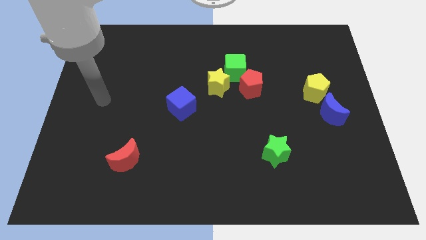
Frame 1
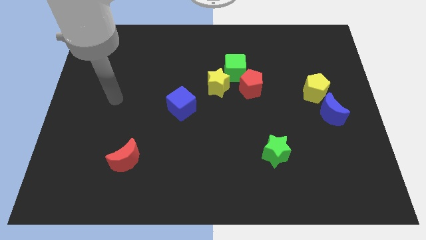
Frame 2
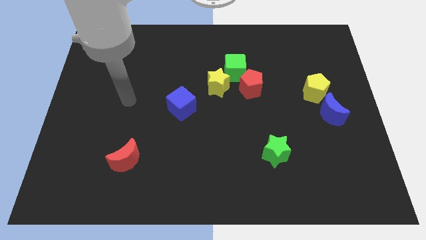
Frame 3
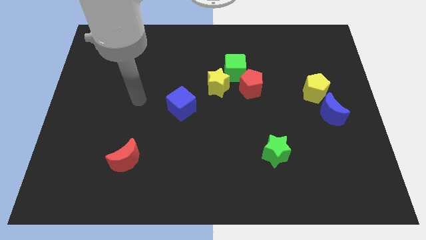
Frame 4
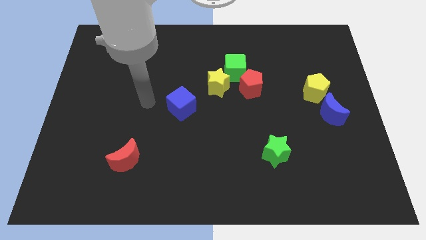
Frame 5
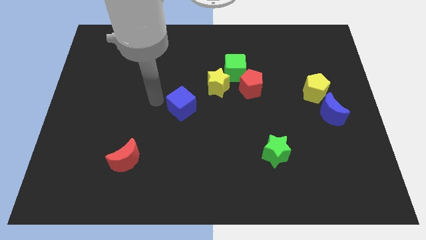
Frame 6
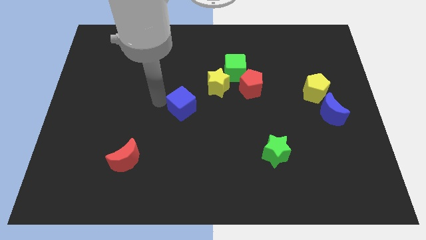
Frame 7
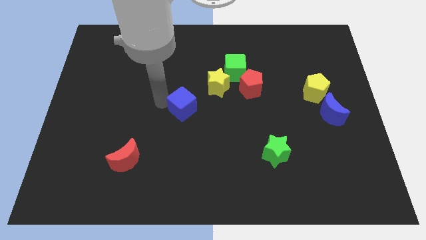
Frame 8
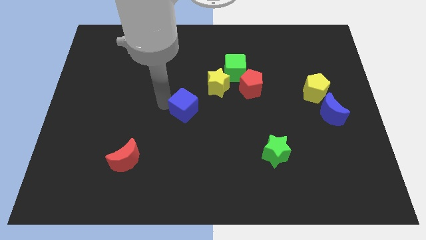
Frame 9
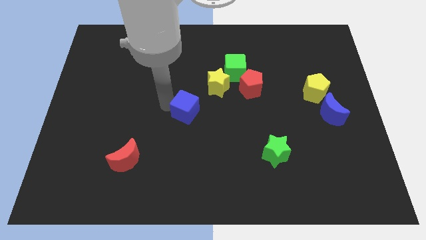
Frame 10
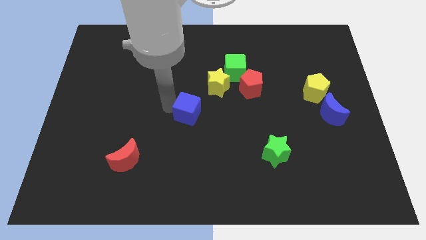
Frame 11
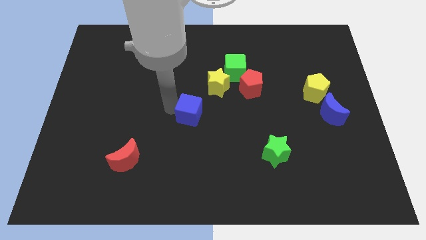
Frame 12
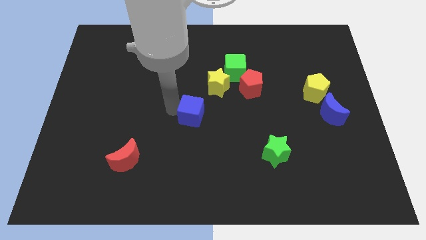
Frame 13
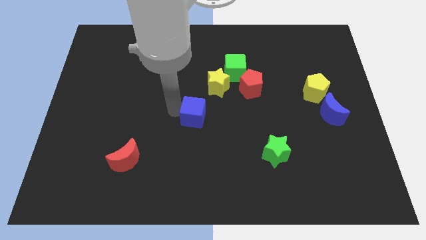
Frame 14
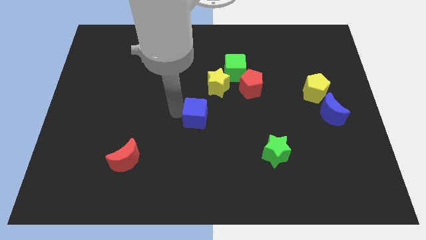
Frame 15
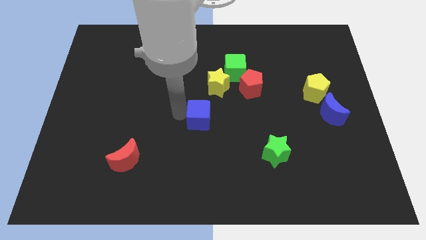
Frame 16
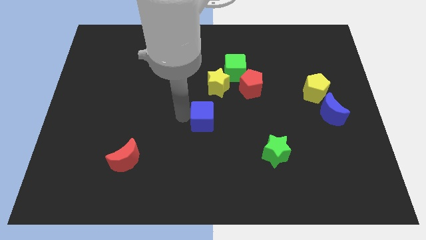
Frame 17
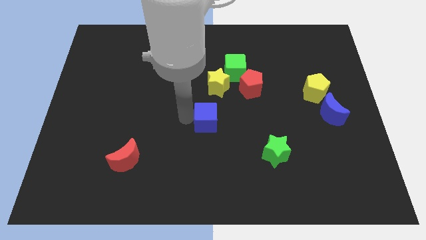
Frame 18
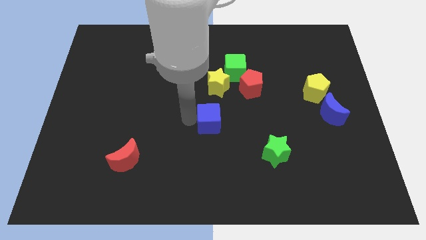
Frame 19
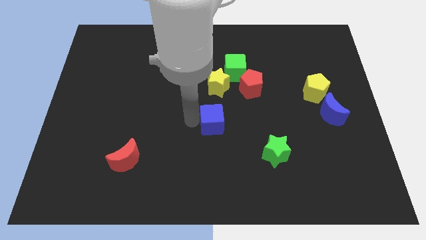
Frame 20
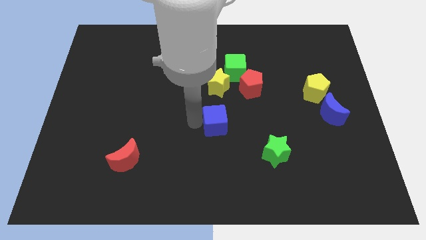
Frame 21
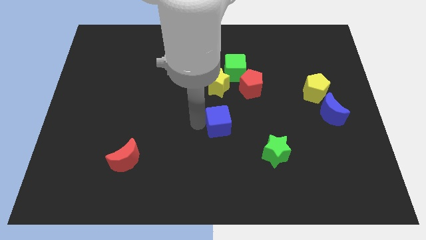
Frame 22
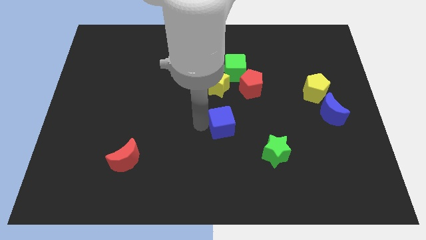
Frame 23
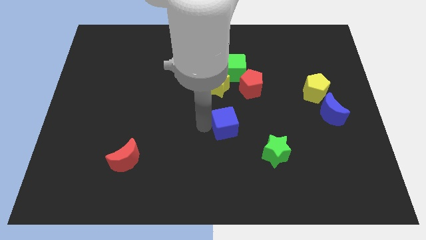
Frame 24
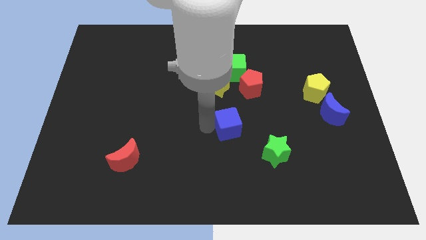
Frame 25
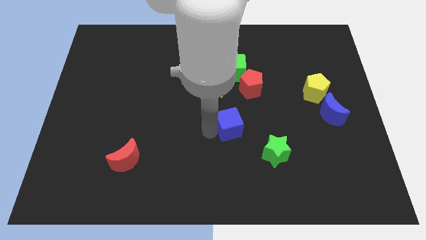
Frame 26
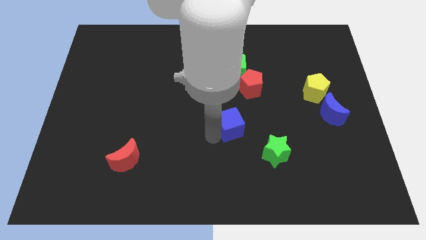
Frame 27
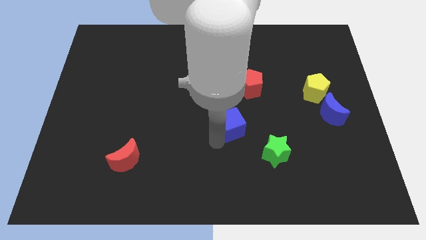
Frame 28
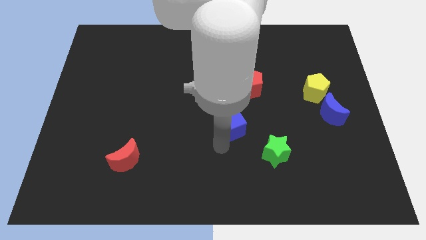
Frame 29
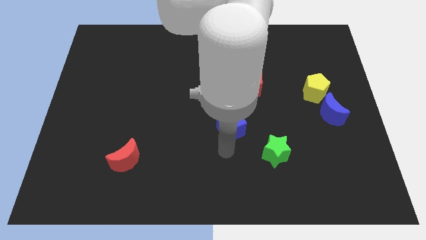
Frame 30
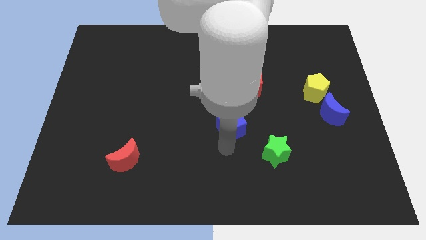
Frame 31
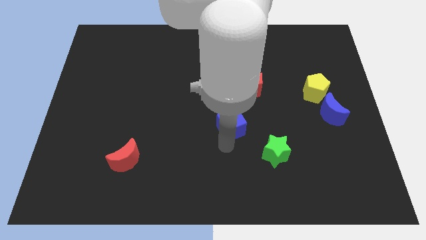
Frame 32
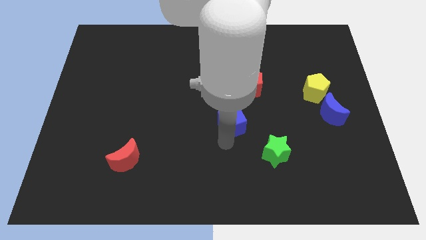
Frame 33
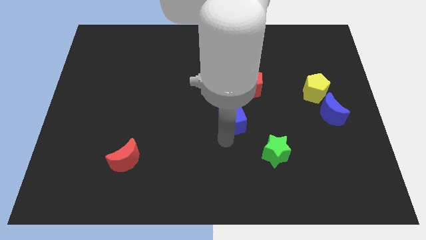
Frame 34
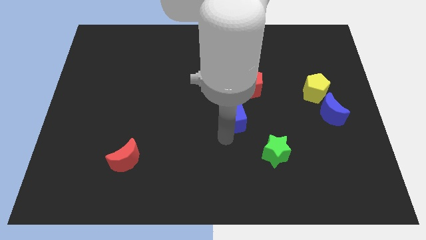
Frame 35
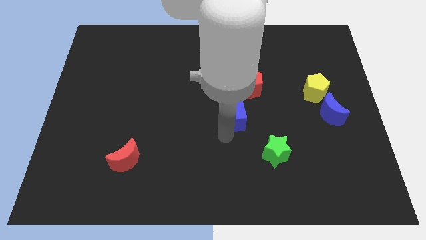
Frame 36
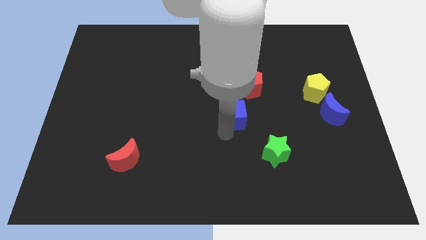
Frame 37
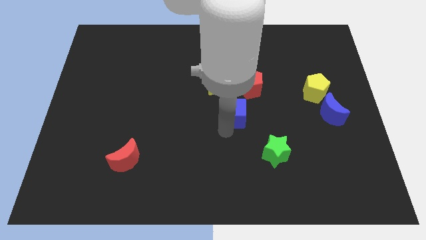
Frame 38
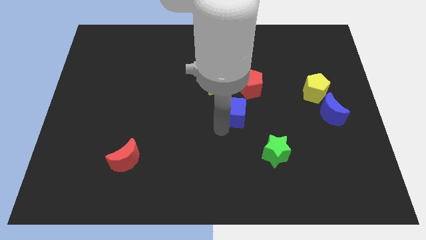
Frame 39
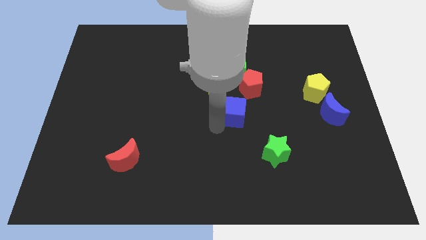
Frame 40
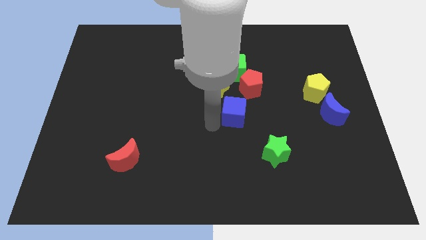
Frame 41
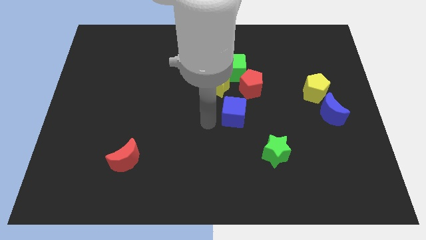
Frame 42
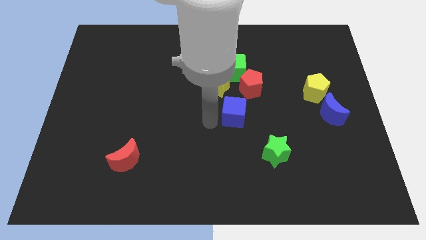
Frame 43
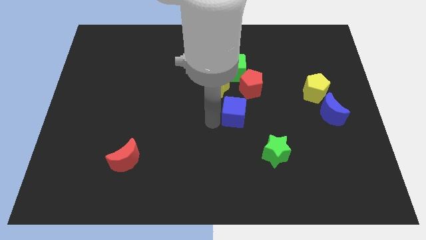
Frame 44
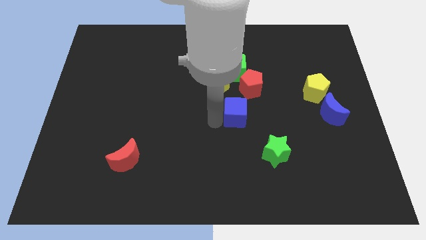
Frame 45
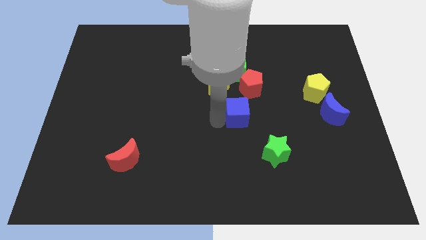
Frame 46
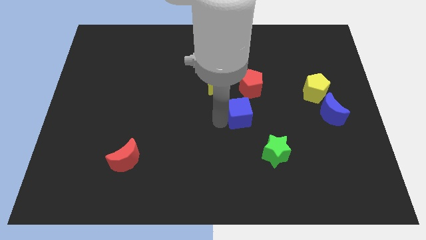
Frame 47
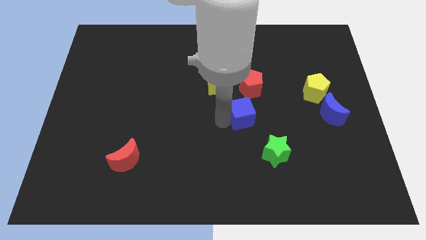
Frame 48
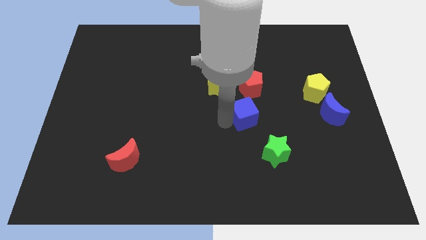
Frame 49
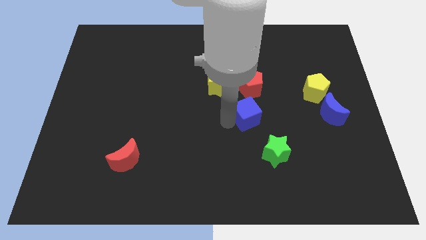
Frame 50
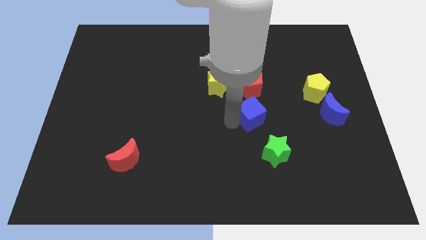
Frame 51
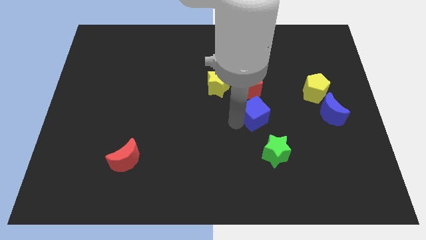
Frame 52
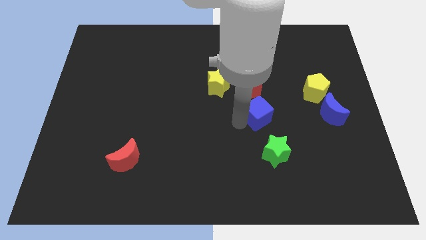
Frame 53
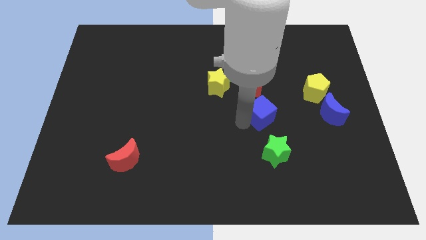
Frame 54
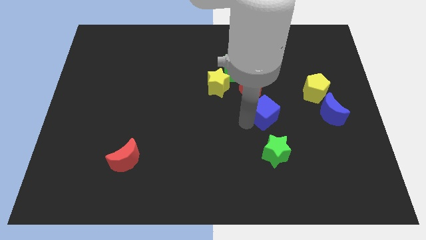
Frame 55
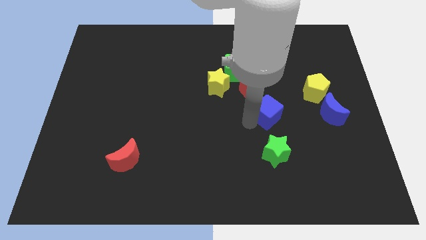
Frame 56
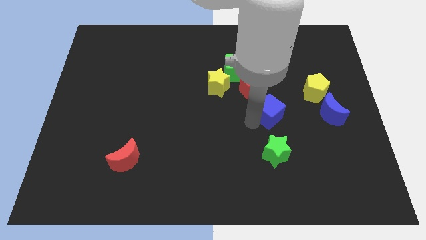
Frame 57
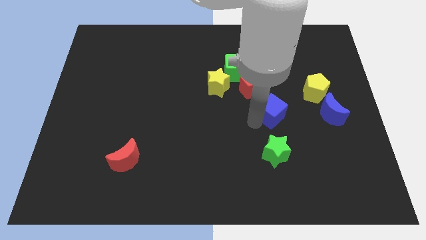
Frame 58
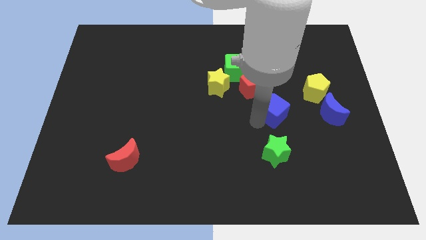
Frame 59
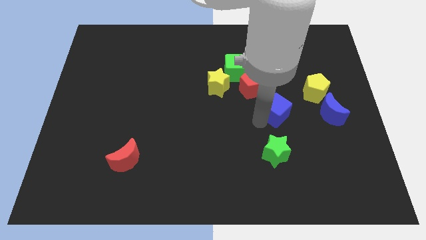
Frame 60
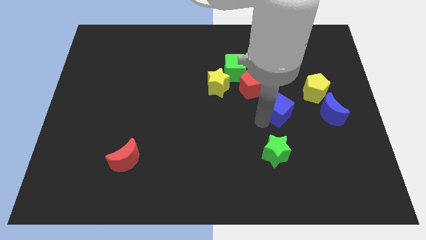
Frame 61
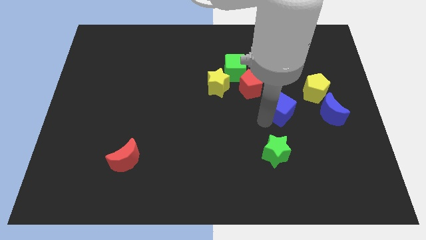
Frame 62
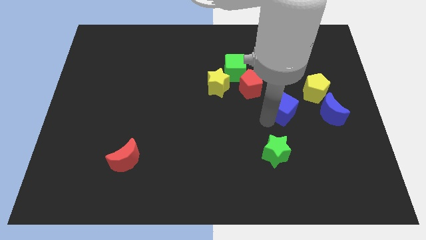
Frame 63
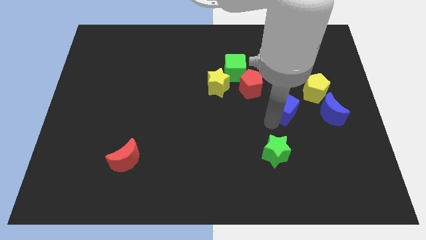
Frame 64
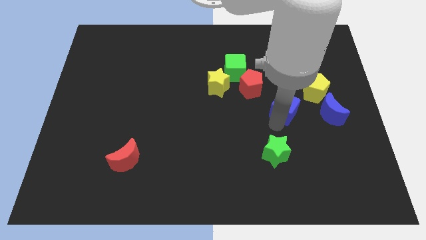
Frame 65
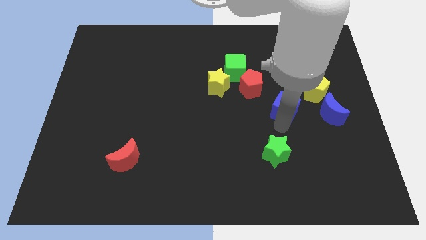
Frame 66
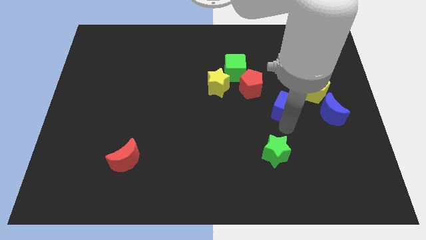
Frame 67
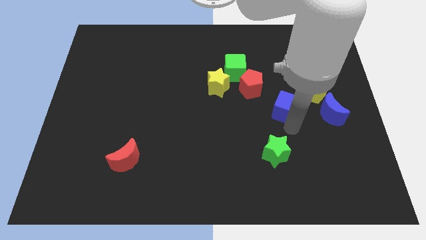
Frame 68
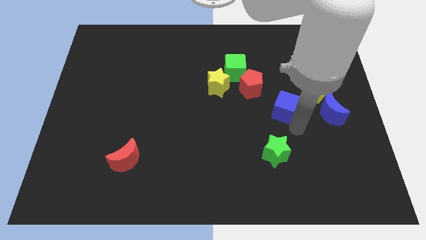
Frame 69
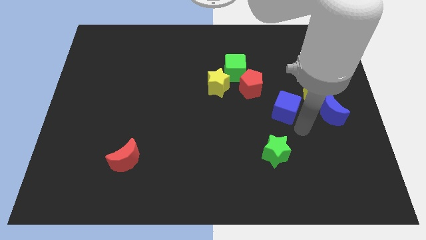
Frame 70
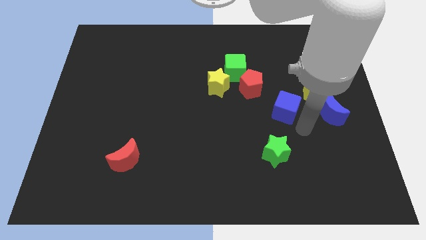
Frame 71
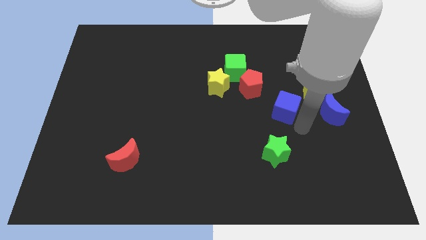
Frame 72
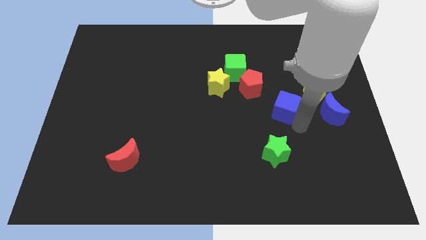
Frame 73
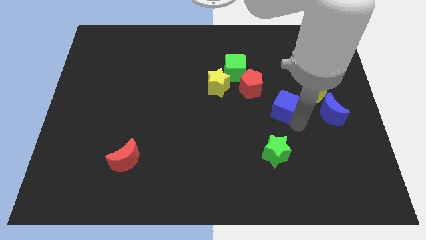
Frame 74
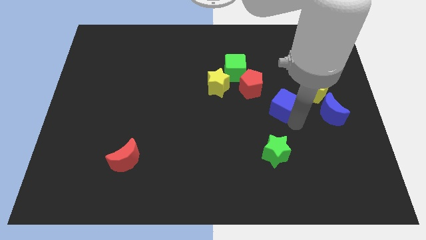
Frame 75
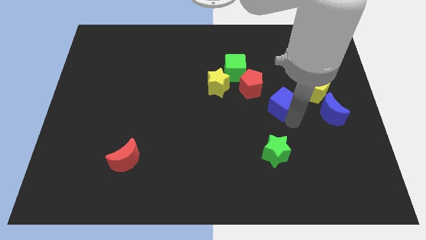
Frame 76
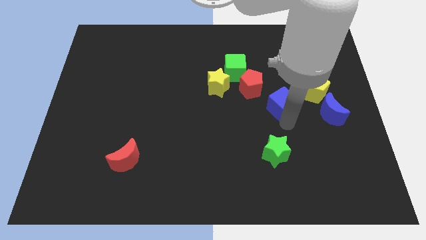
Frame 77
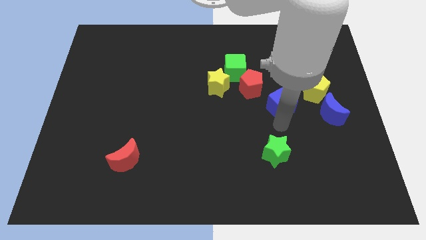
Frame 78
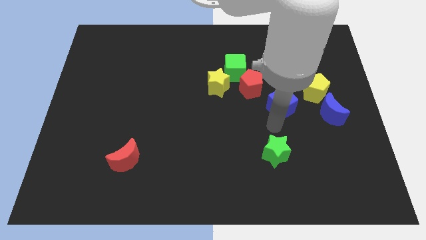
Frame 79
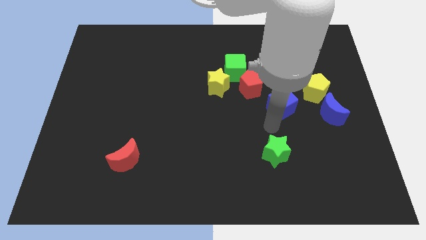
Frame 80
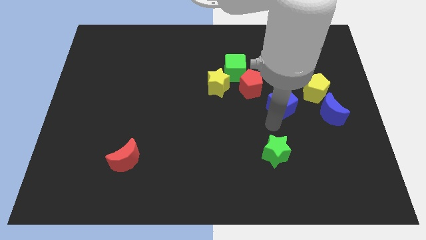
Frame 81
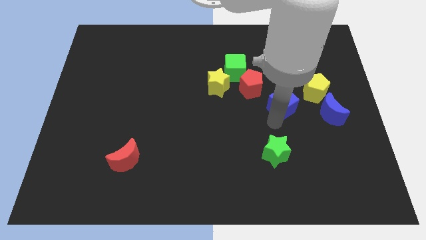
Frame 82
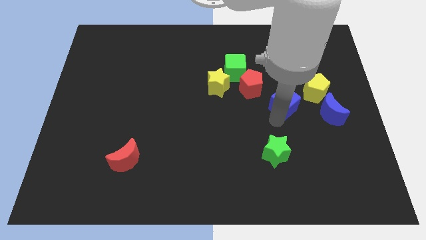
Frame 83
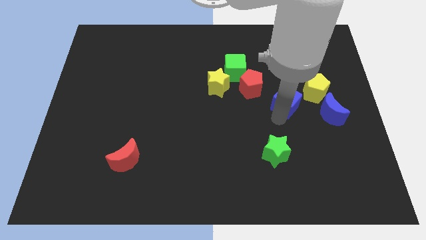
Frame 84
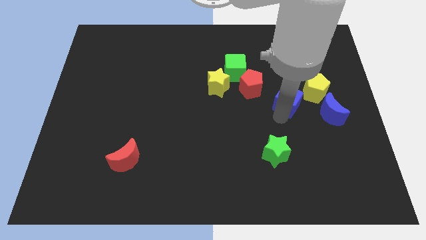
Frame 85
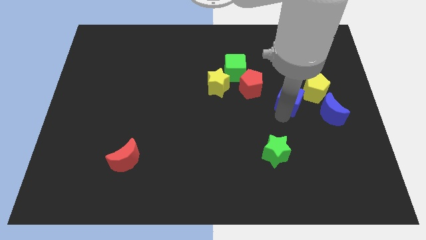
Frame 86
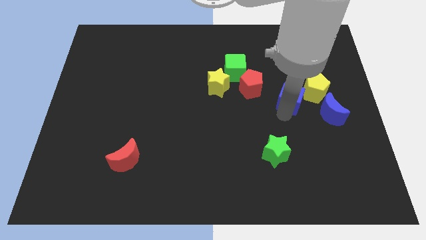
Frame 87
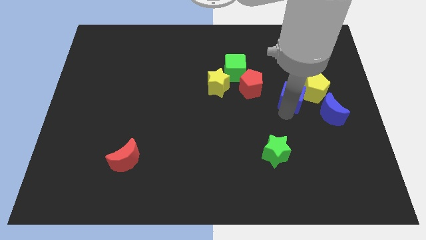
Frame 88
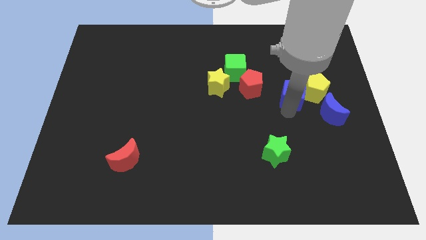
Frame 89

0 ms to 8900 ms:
move the blue cube to the yellow pentagon
